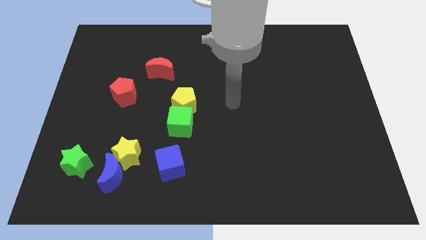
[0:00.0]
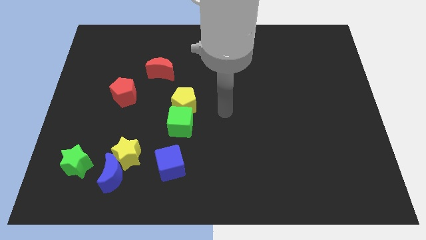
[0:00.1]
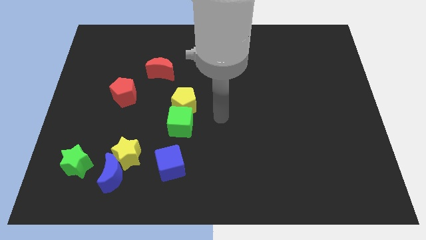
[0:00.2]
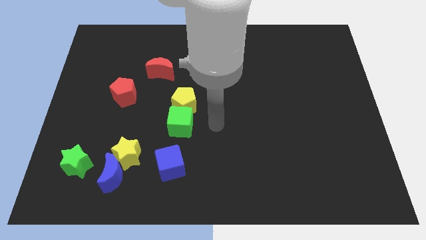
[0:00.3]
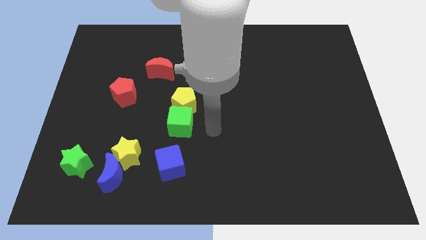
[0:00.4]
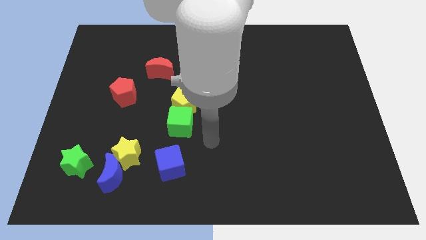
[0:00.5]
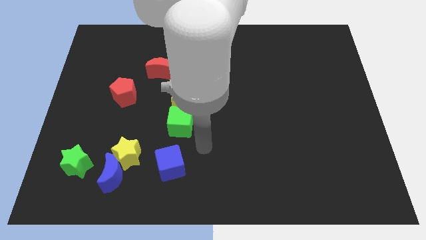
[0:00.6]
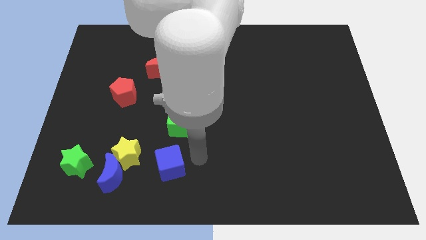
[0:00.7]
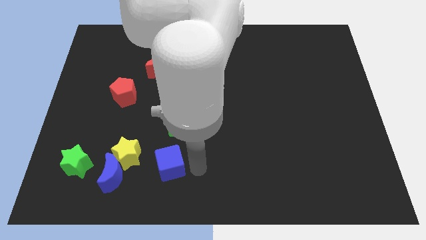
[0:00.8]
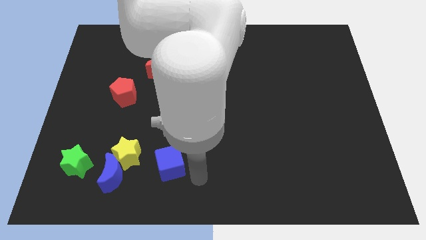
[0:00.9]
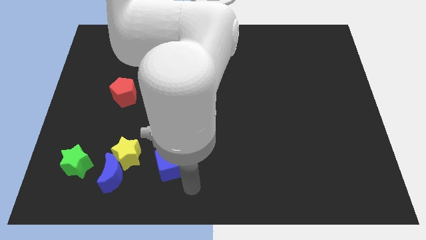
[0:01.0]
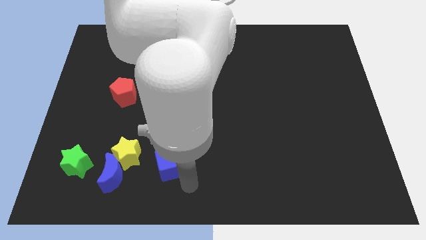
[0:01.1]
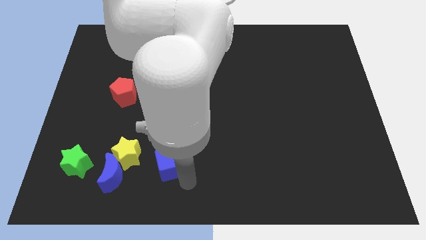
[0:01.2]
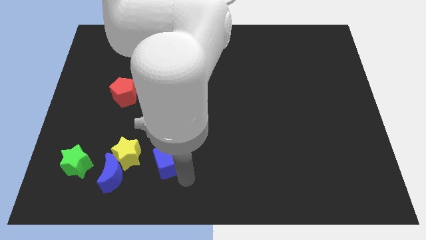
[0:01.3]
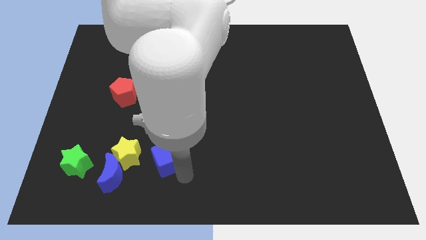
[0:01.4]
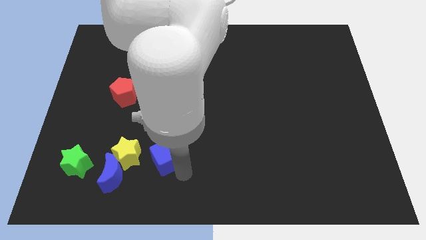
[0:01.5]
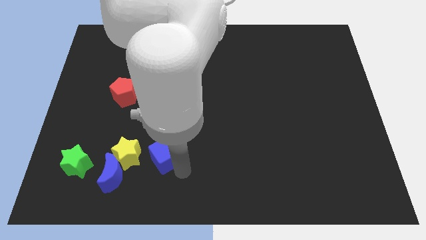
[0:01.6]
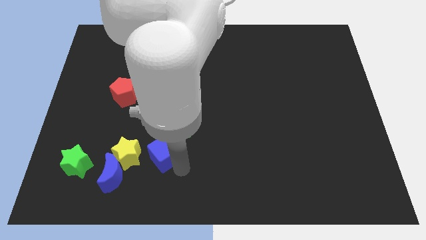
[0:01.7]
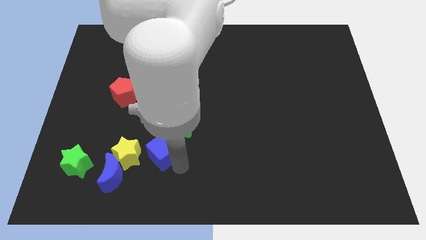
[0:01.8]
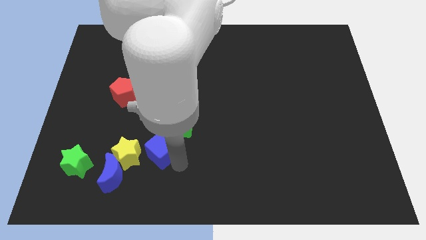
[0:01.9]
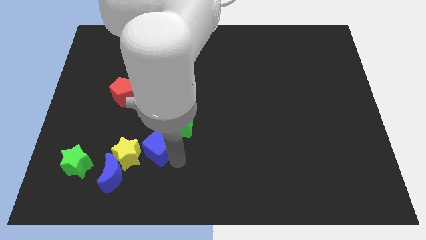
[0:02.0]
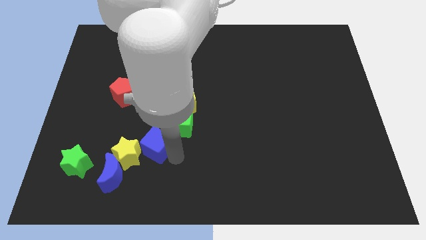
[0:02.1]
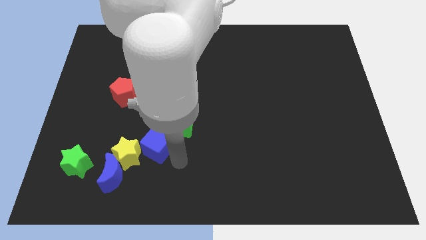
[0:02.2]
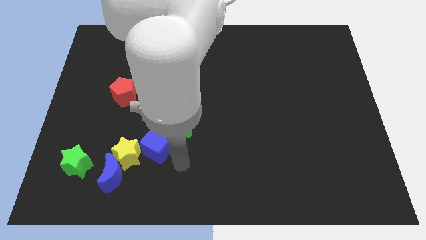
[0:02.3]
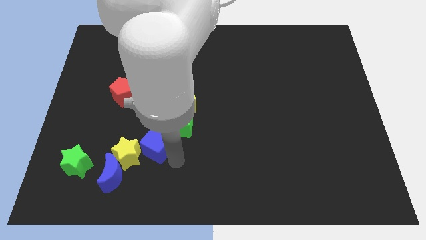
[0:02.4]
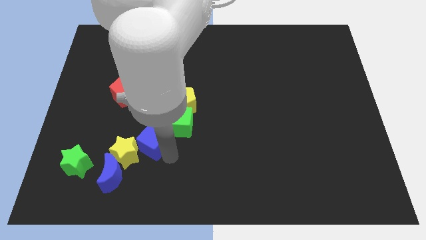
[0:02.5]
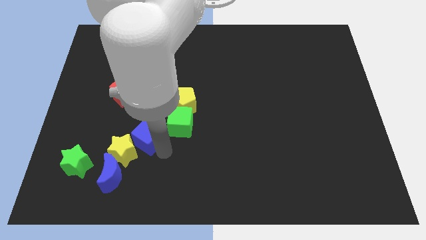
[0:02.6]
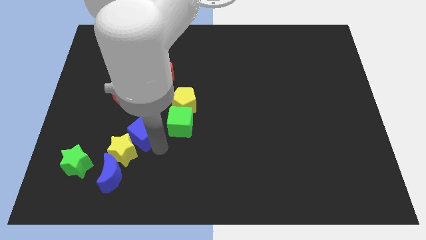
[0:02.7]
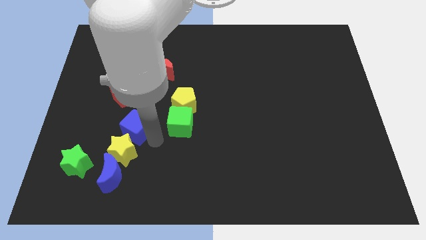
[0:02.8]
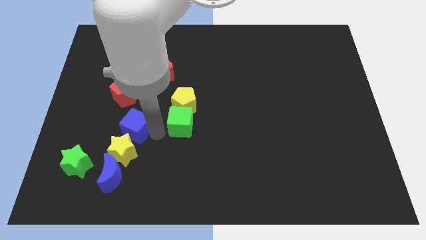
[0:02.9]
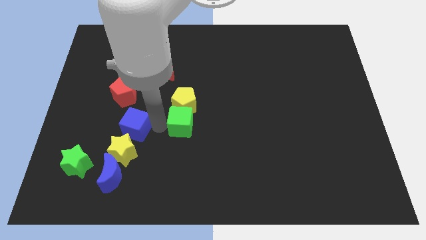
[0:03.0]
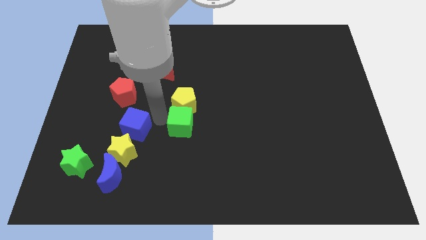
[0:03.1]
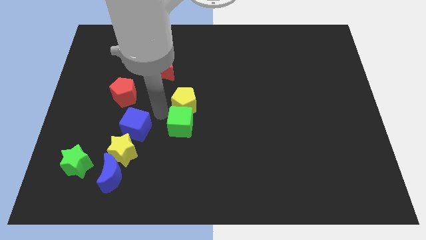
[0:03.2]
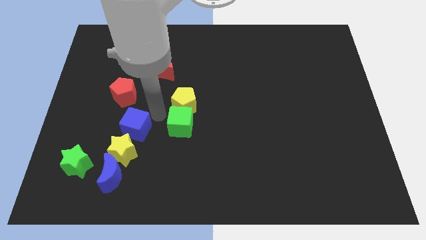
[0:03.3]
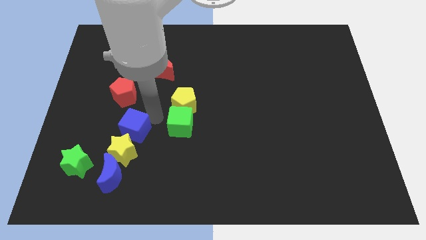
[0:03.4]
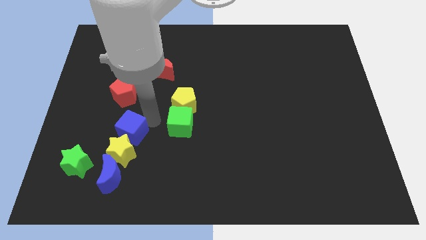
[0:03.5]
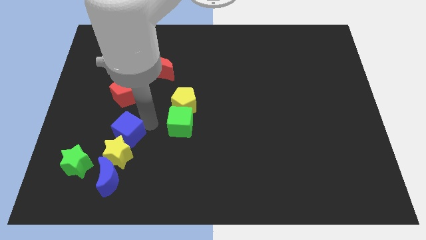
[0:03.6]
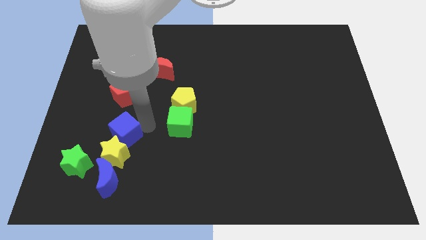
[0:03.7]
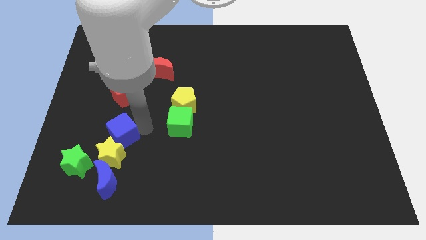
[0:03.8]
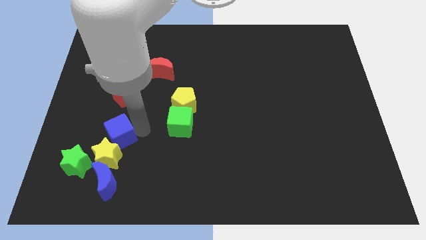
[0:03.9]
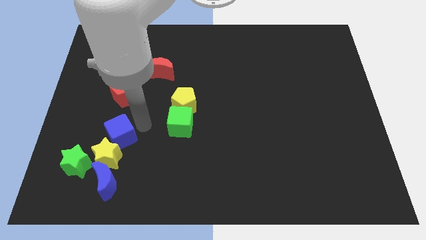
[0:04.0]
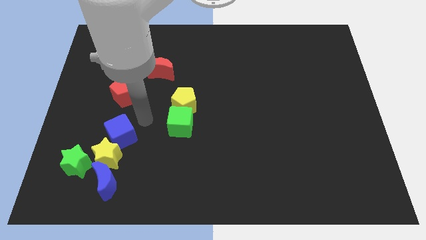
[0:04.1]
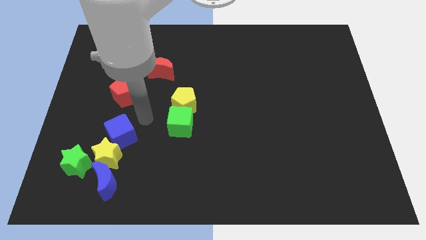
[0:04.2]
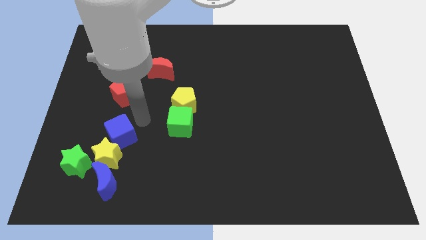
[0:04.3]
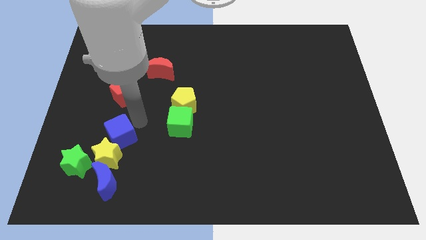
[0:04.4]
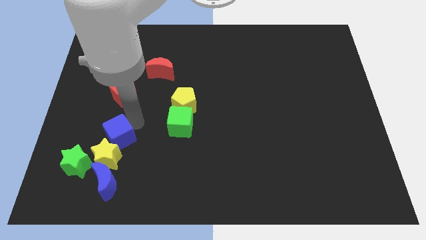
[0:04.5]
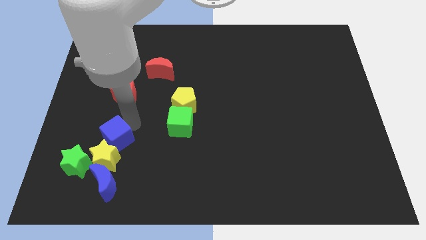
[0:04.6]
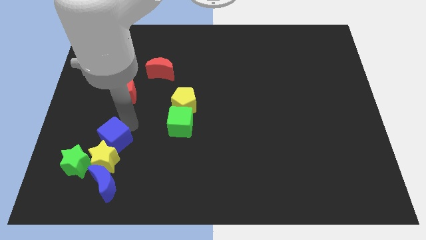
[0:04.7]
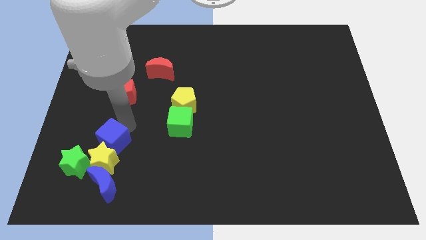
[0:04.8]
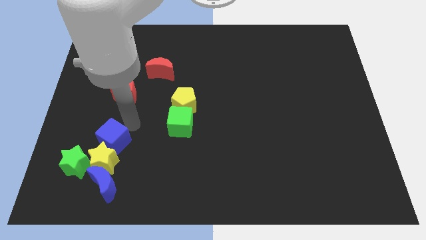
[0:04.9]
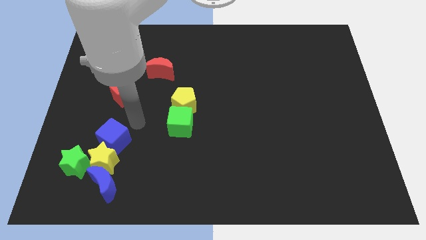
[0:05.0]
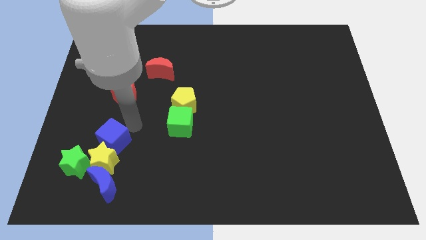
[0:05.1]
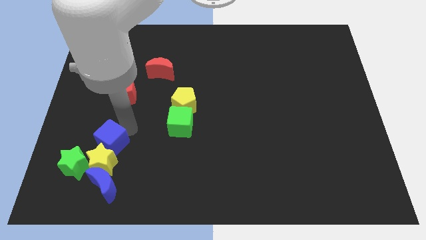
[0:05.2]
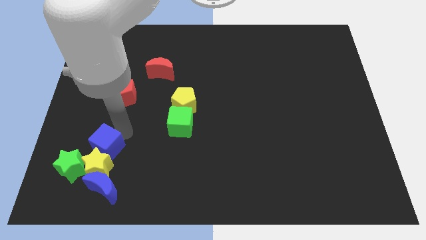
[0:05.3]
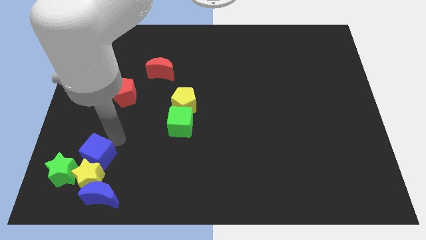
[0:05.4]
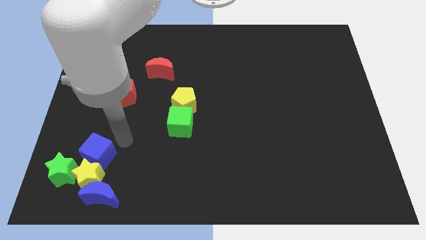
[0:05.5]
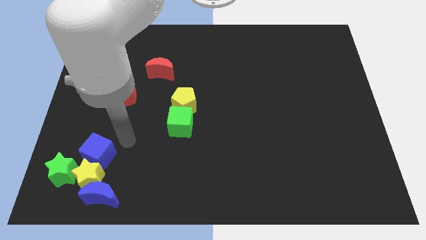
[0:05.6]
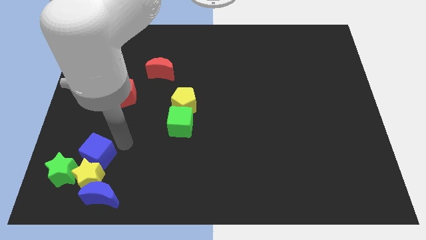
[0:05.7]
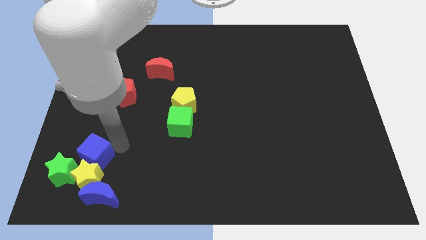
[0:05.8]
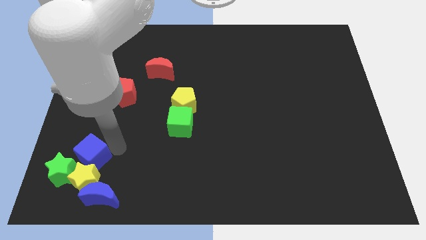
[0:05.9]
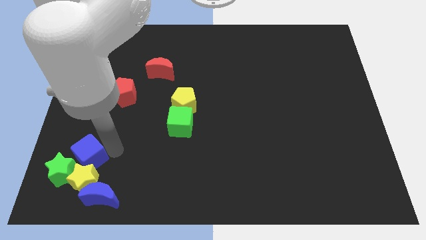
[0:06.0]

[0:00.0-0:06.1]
move the blue cube towards the green star
